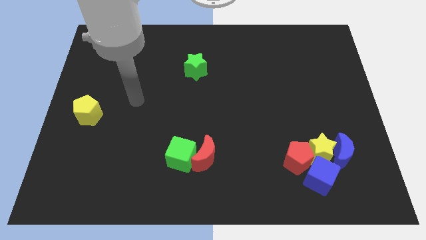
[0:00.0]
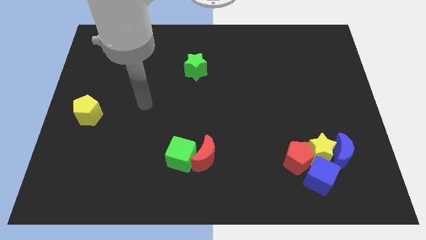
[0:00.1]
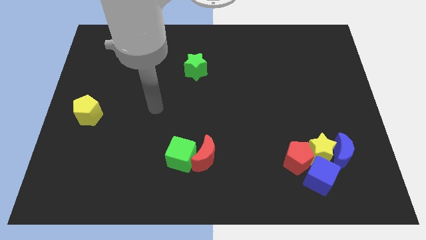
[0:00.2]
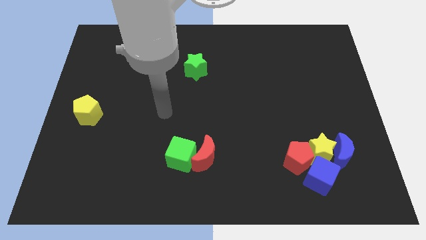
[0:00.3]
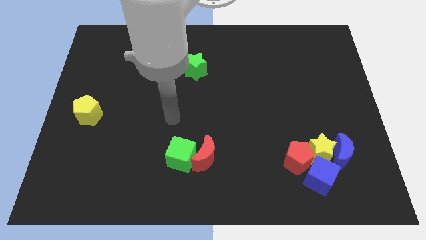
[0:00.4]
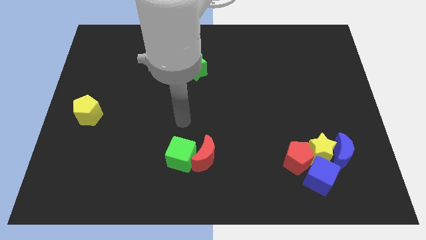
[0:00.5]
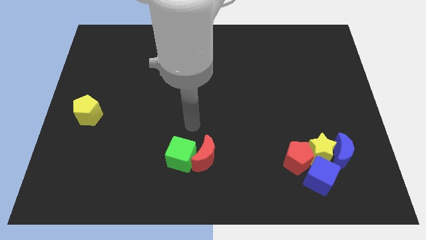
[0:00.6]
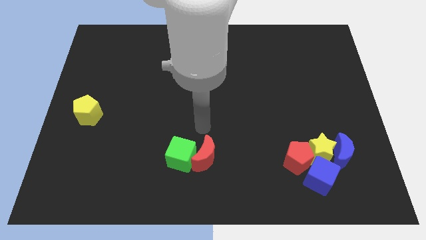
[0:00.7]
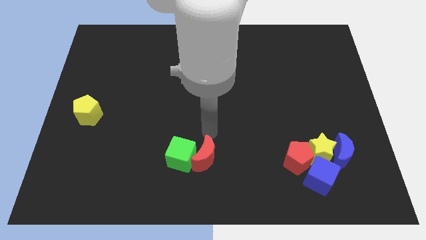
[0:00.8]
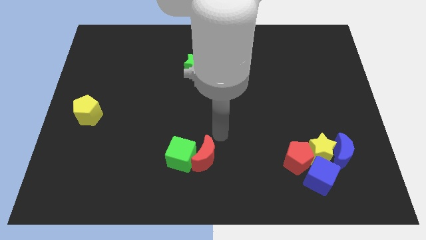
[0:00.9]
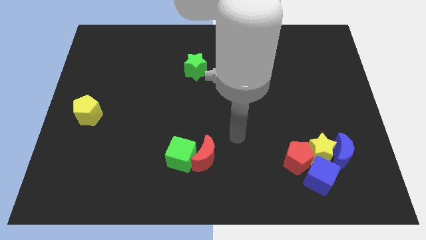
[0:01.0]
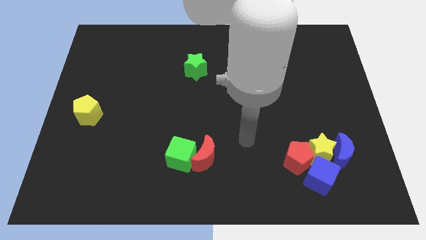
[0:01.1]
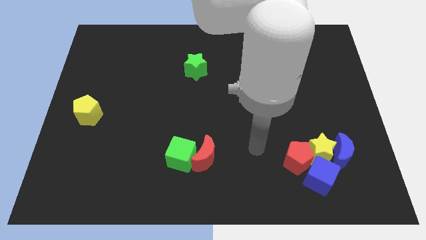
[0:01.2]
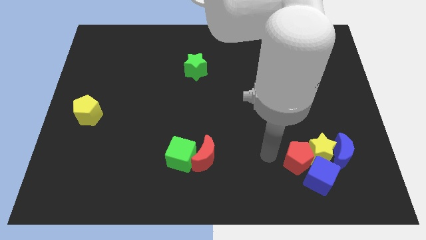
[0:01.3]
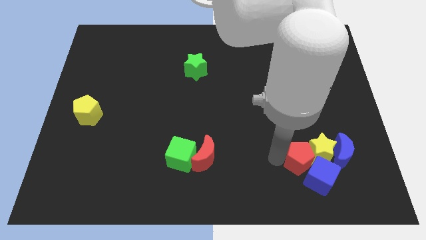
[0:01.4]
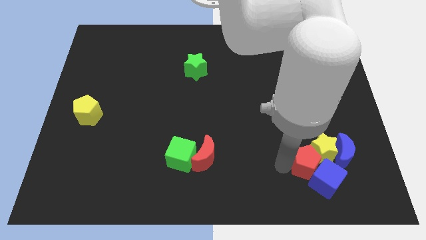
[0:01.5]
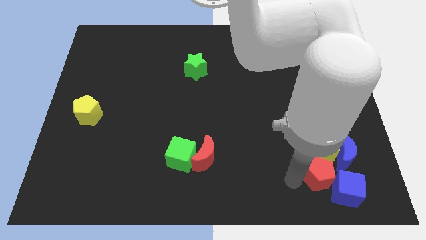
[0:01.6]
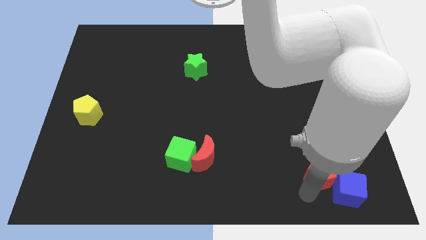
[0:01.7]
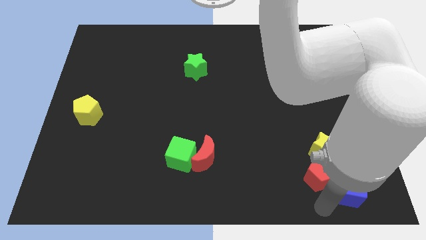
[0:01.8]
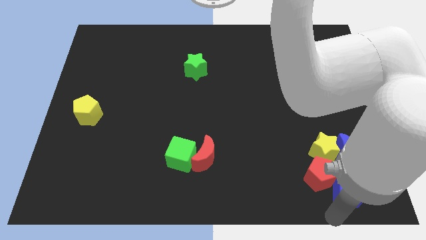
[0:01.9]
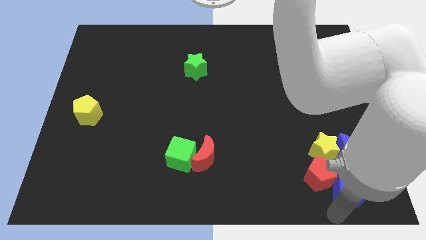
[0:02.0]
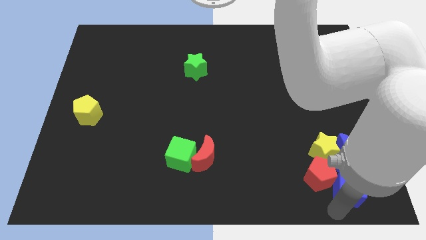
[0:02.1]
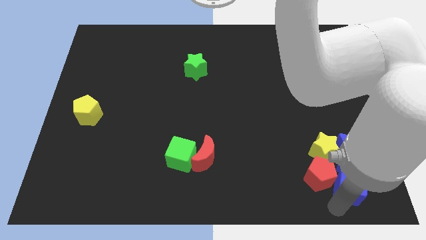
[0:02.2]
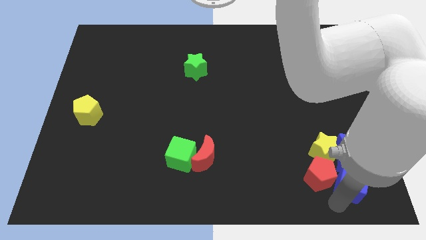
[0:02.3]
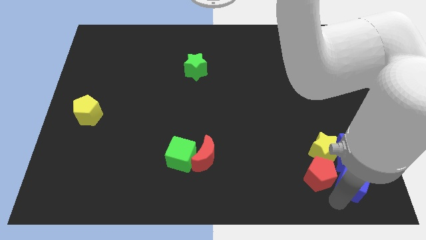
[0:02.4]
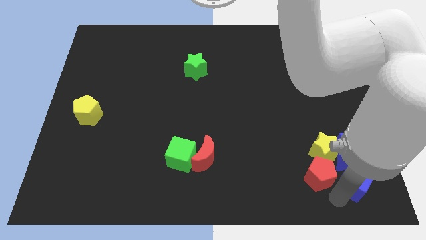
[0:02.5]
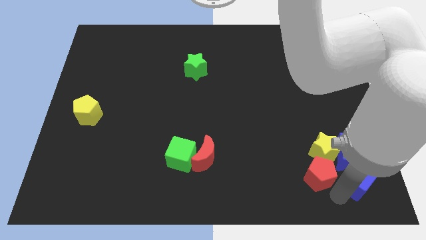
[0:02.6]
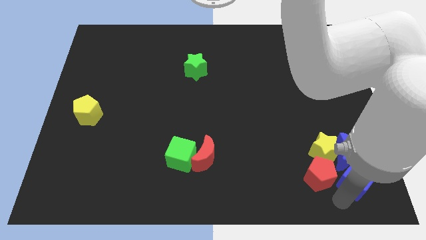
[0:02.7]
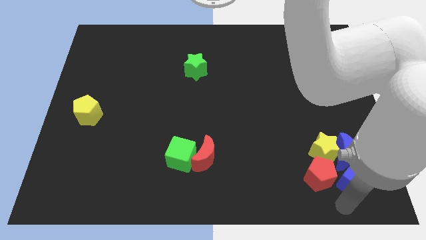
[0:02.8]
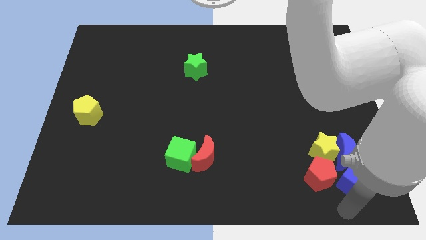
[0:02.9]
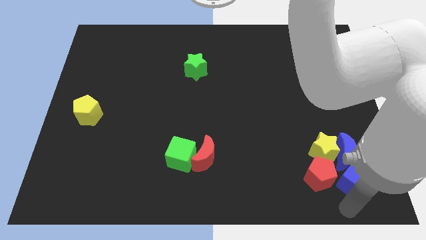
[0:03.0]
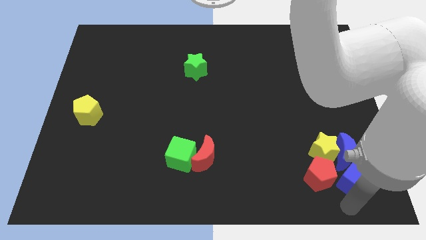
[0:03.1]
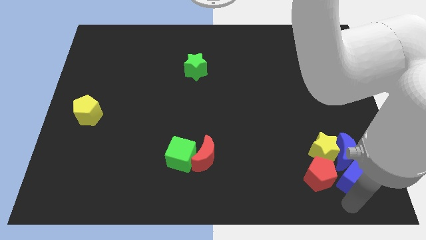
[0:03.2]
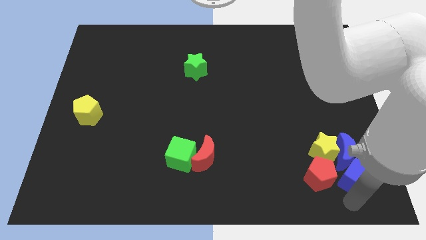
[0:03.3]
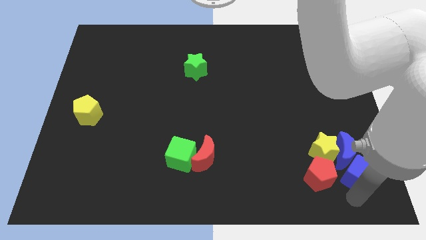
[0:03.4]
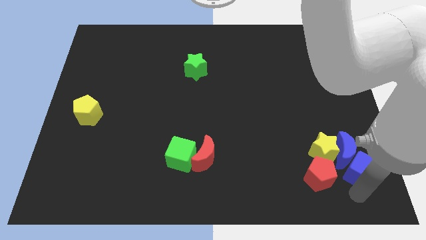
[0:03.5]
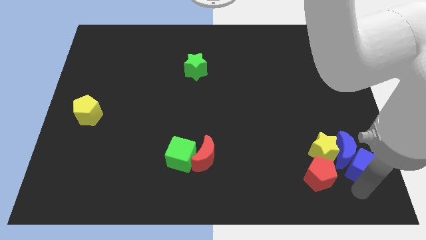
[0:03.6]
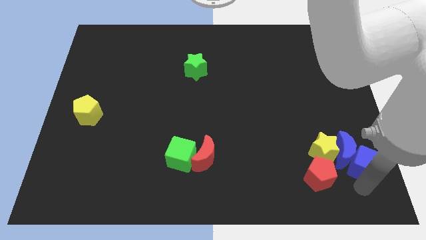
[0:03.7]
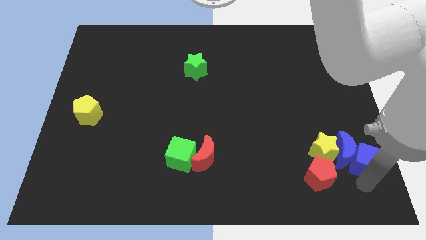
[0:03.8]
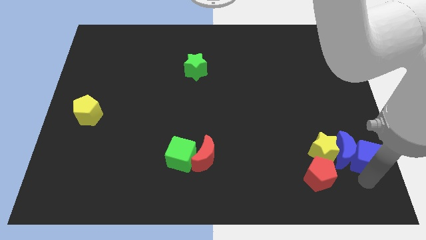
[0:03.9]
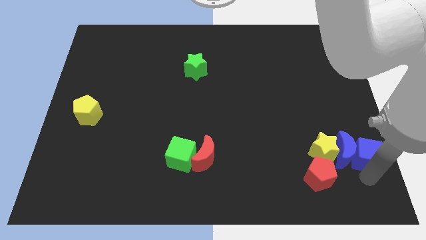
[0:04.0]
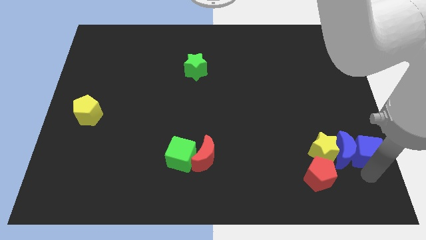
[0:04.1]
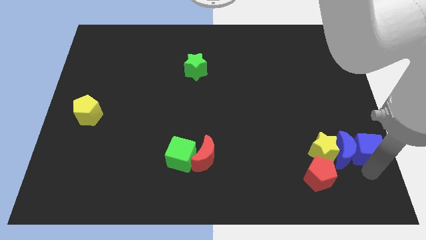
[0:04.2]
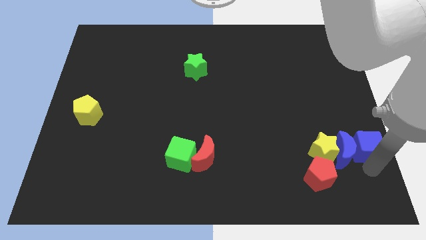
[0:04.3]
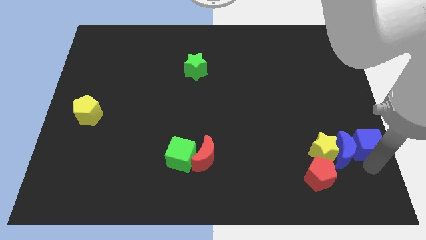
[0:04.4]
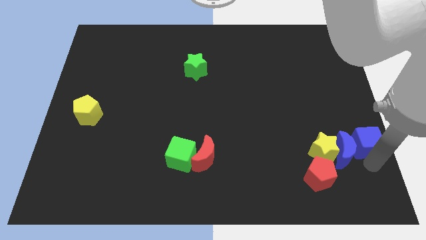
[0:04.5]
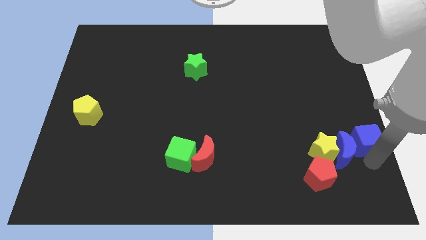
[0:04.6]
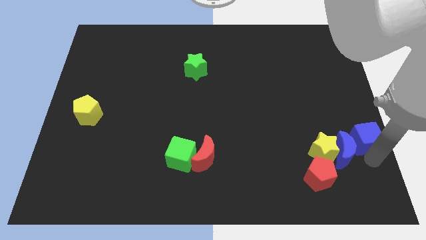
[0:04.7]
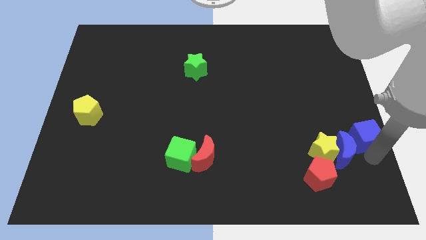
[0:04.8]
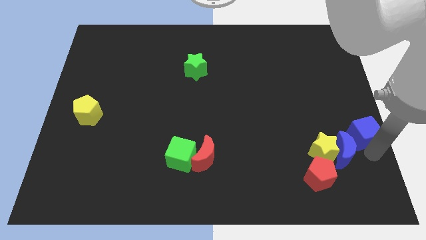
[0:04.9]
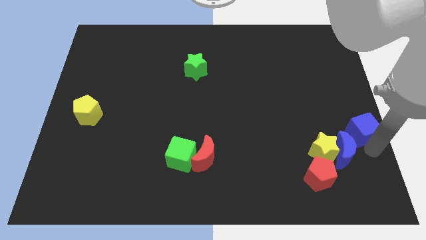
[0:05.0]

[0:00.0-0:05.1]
put the blue cube to the top side of the blue moon

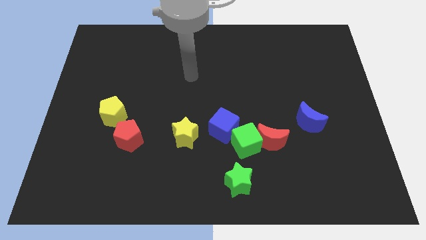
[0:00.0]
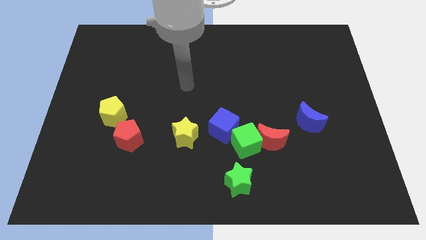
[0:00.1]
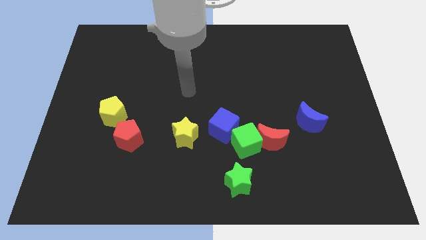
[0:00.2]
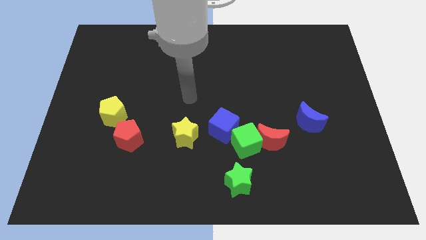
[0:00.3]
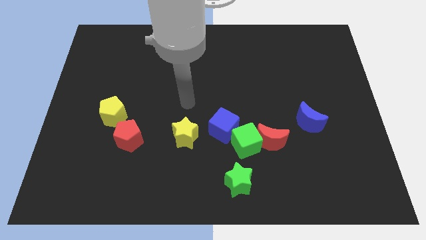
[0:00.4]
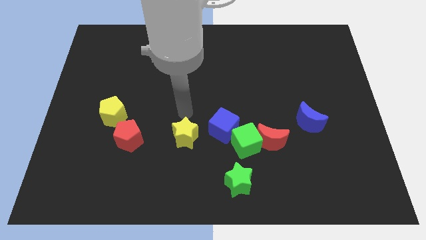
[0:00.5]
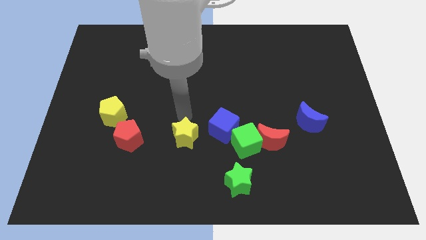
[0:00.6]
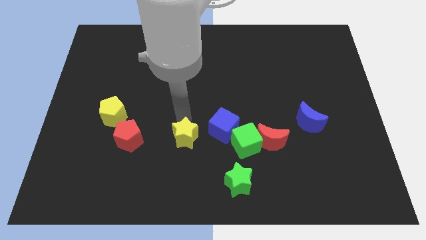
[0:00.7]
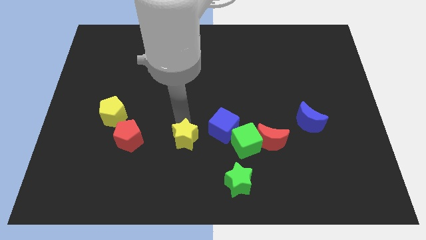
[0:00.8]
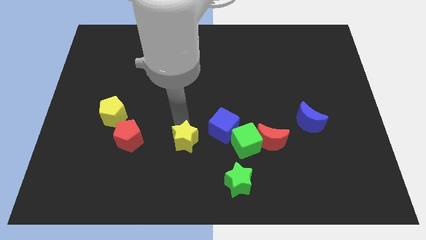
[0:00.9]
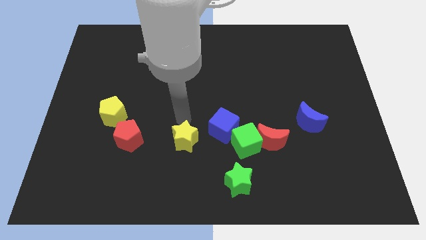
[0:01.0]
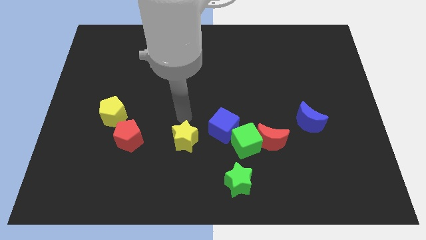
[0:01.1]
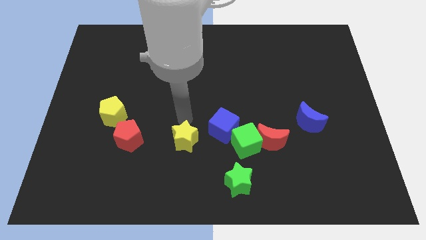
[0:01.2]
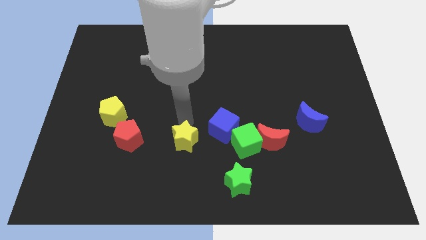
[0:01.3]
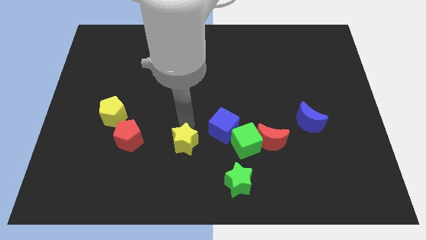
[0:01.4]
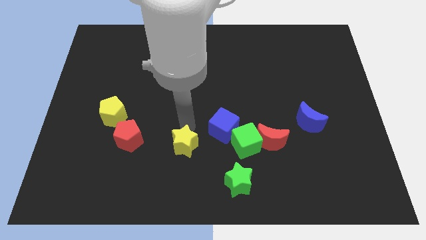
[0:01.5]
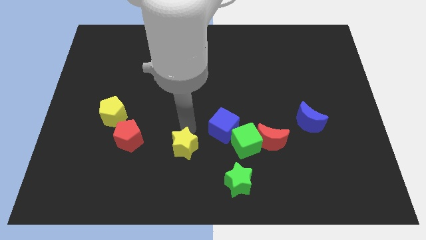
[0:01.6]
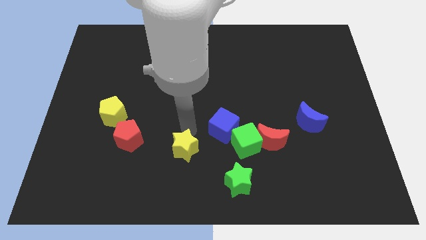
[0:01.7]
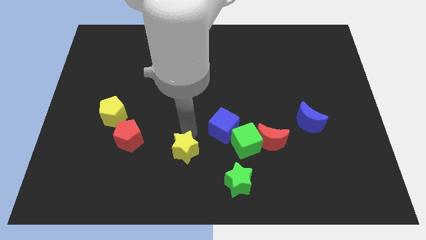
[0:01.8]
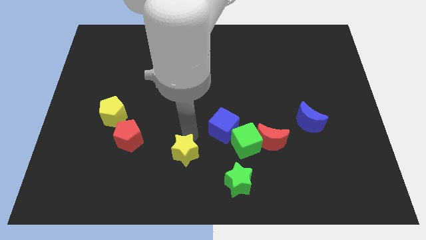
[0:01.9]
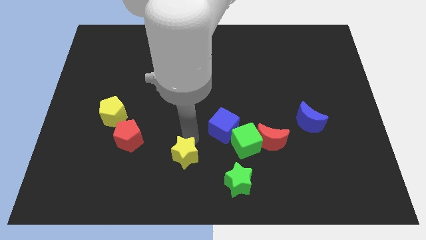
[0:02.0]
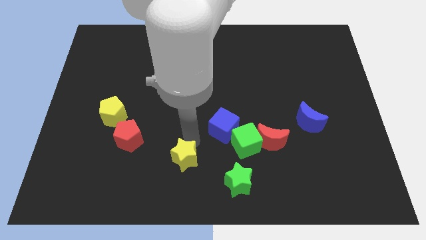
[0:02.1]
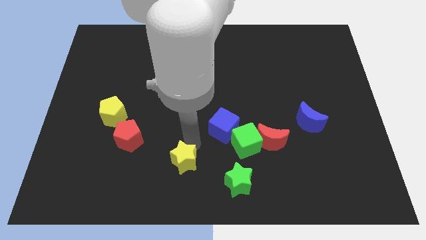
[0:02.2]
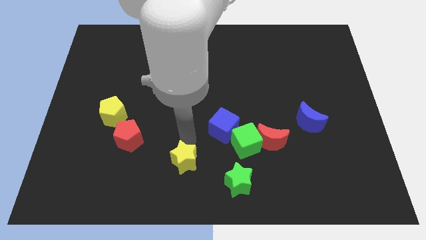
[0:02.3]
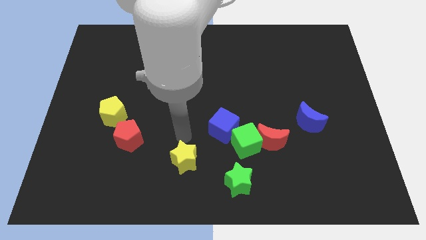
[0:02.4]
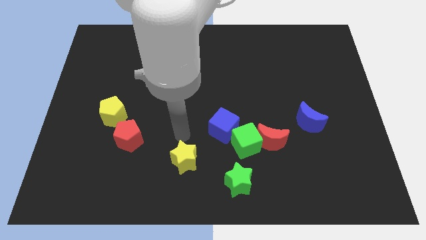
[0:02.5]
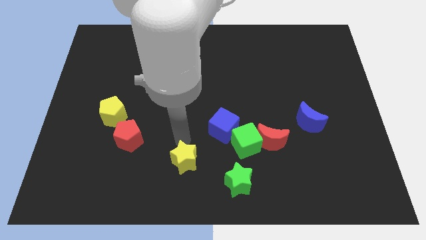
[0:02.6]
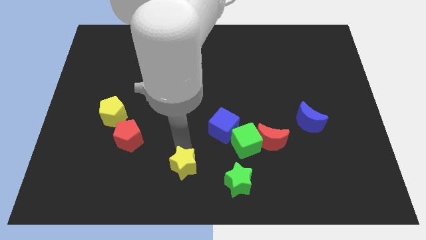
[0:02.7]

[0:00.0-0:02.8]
put the yellow star left of the green star

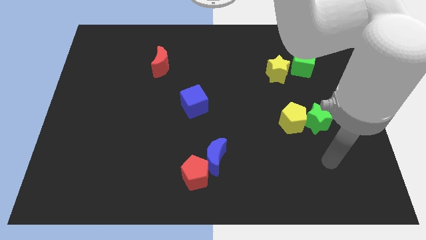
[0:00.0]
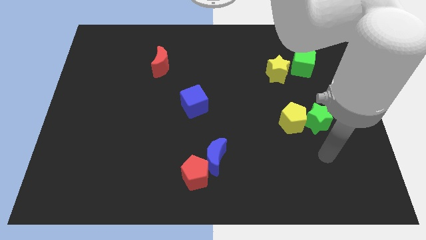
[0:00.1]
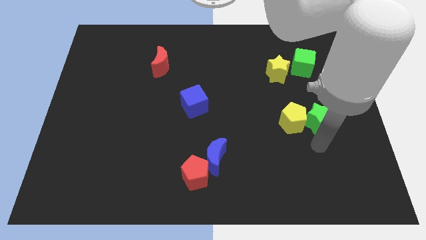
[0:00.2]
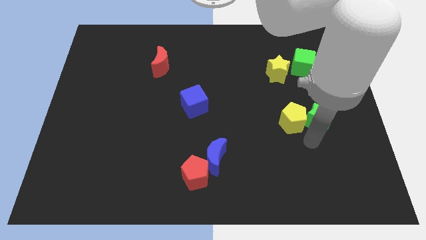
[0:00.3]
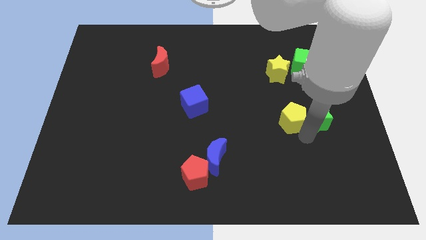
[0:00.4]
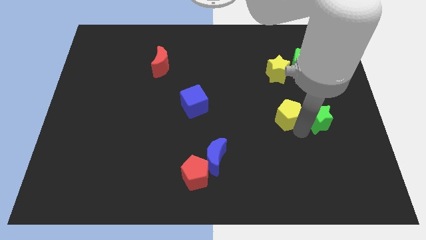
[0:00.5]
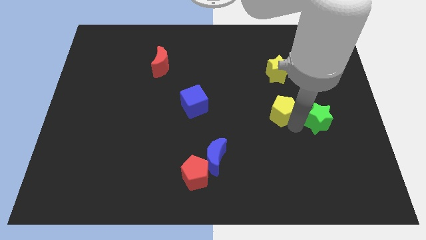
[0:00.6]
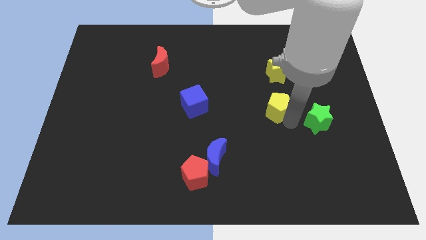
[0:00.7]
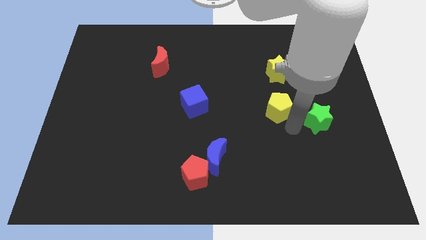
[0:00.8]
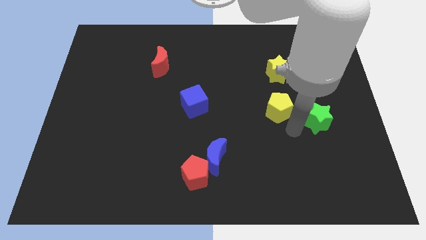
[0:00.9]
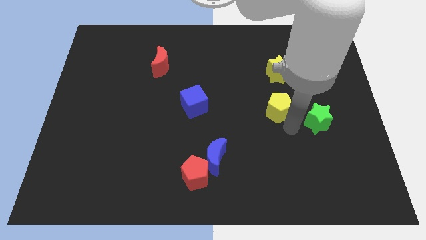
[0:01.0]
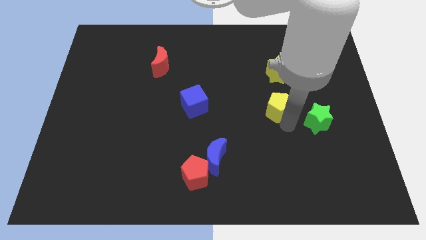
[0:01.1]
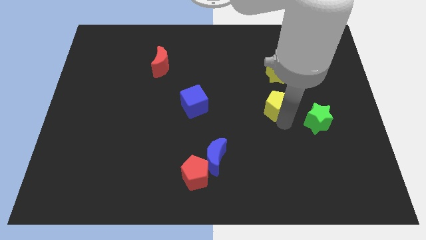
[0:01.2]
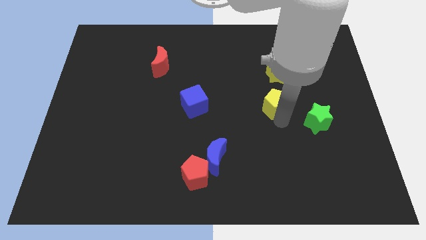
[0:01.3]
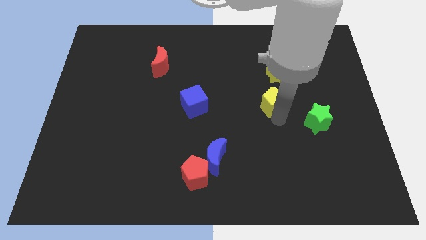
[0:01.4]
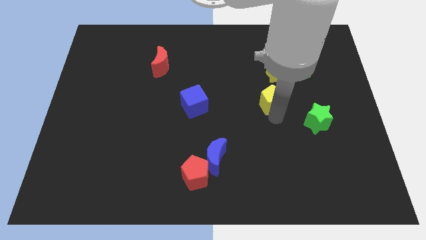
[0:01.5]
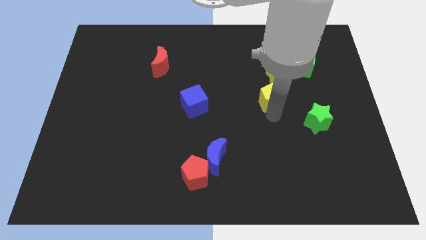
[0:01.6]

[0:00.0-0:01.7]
move the yellow pentagon diagonally down and to the left of the yellow star
